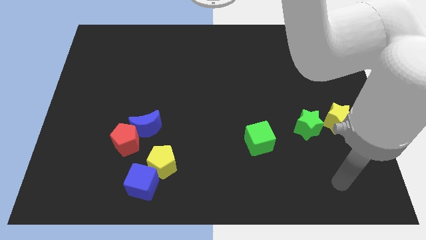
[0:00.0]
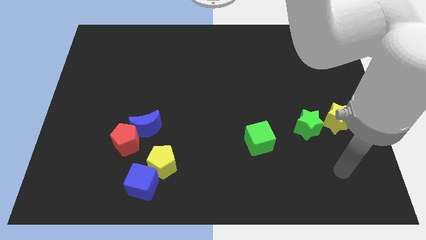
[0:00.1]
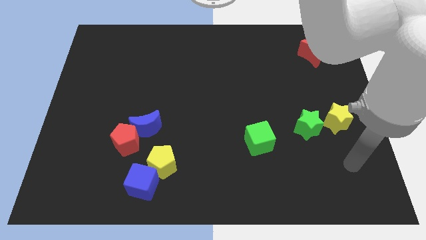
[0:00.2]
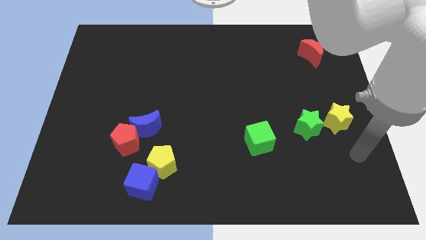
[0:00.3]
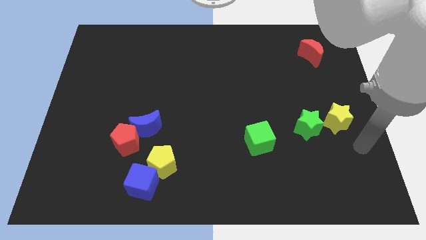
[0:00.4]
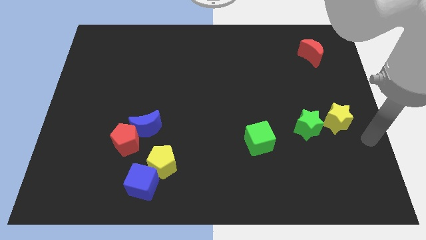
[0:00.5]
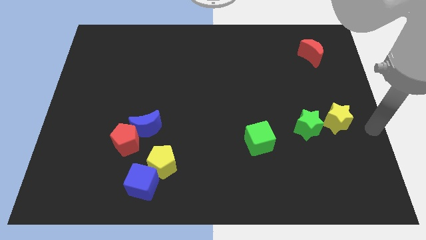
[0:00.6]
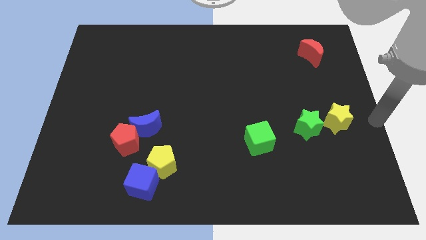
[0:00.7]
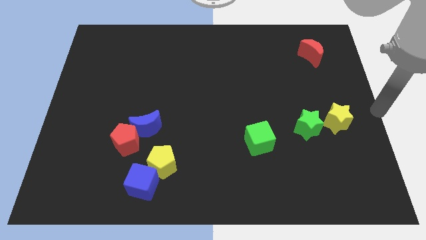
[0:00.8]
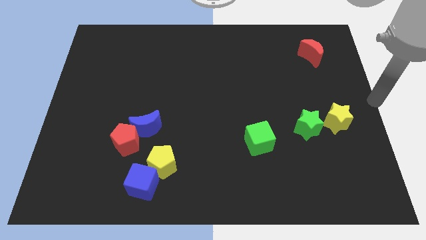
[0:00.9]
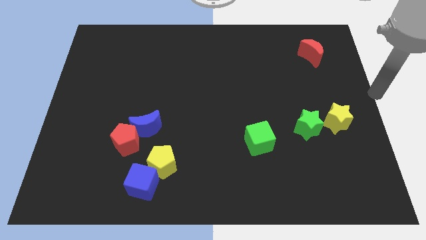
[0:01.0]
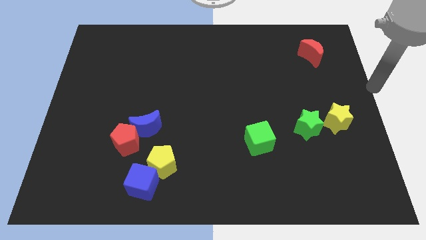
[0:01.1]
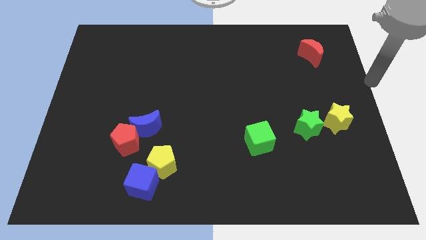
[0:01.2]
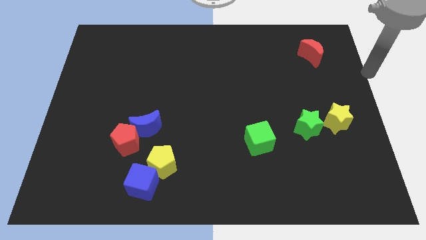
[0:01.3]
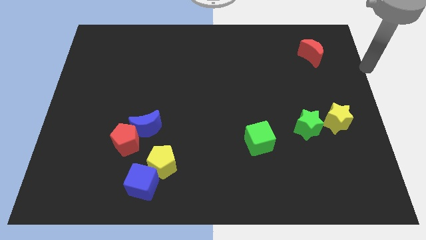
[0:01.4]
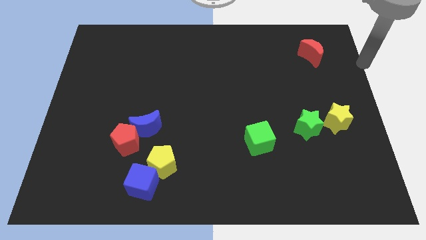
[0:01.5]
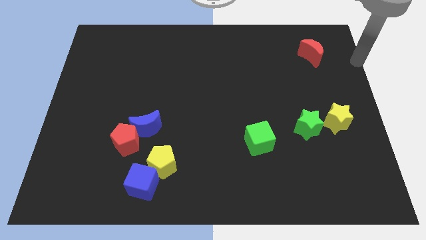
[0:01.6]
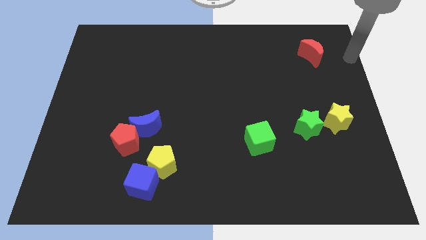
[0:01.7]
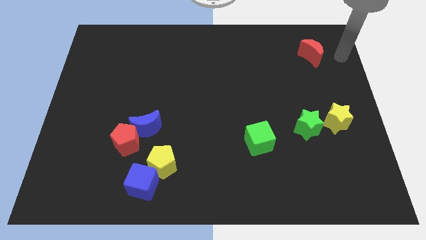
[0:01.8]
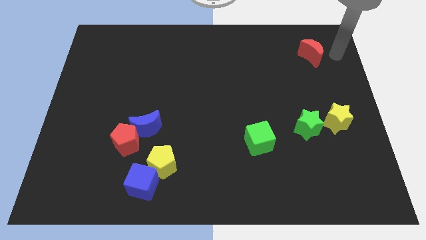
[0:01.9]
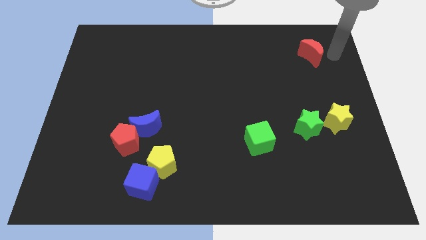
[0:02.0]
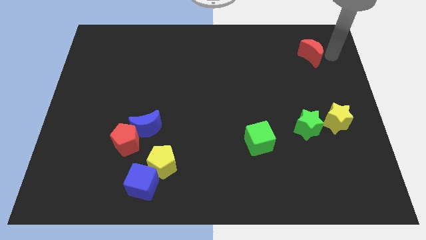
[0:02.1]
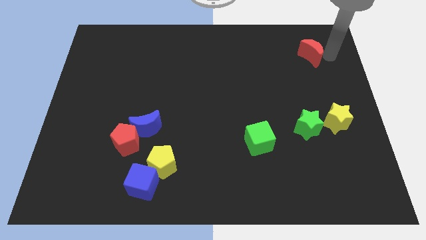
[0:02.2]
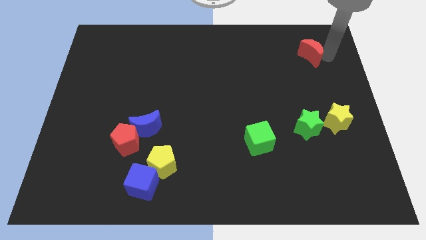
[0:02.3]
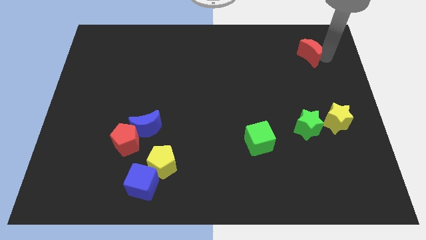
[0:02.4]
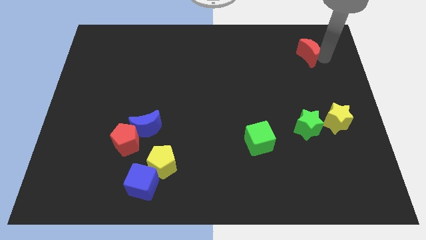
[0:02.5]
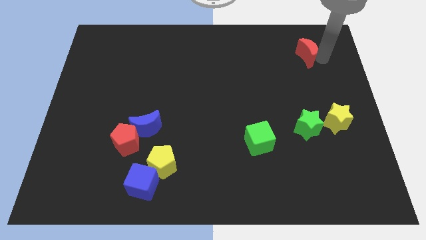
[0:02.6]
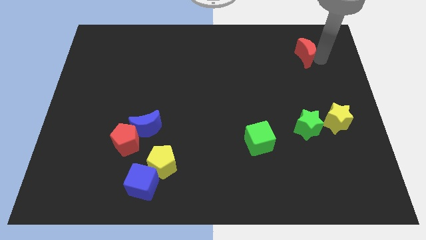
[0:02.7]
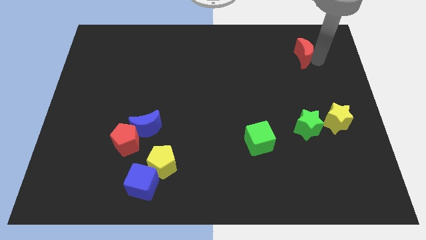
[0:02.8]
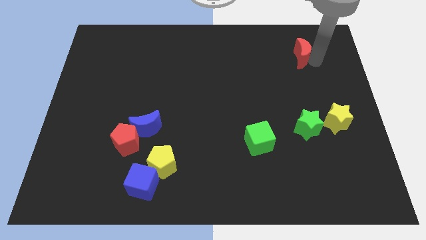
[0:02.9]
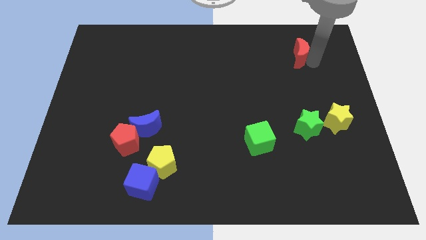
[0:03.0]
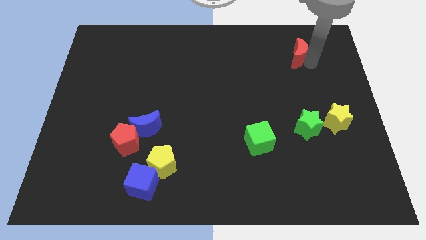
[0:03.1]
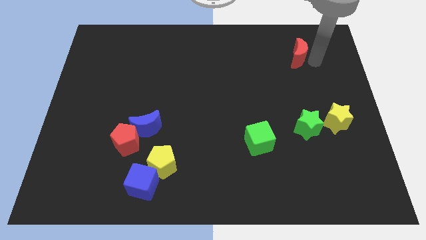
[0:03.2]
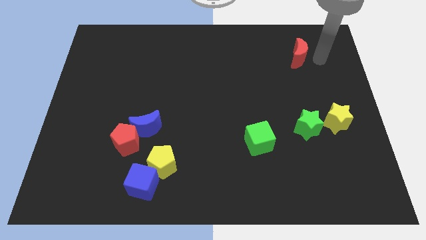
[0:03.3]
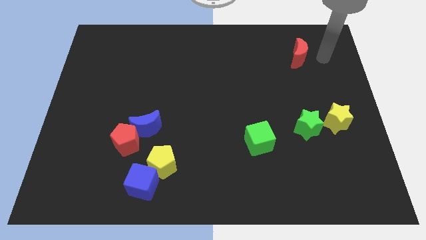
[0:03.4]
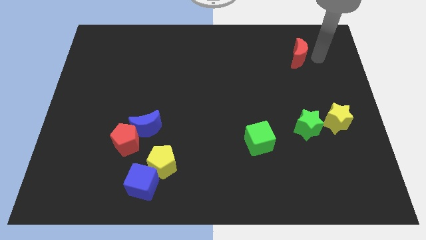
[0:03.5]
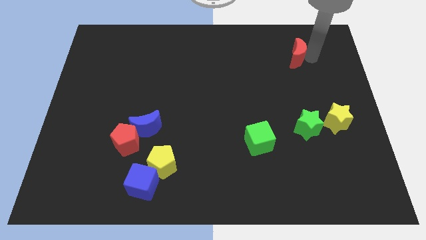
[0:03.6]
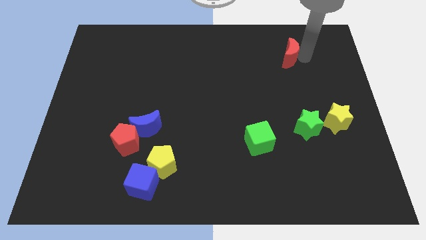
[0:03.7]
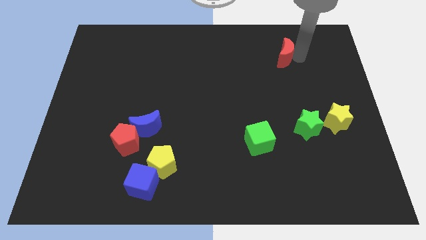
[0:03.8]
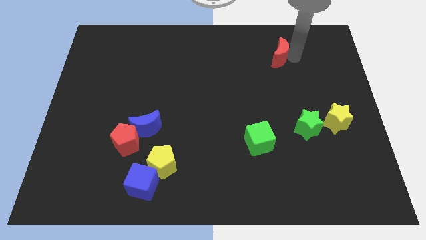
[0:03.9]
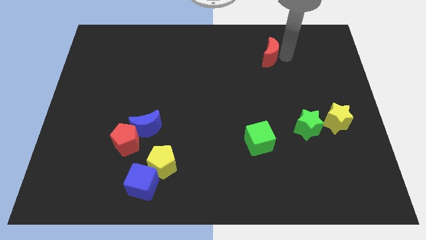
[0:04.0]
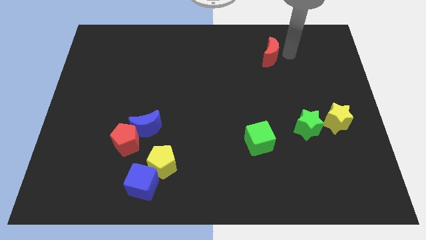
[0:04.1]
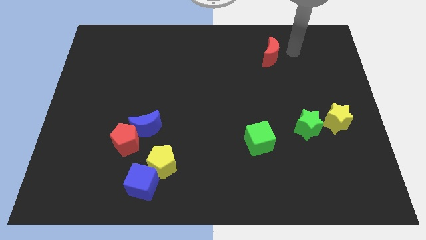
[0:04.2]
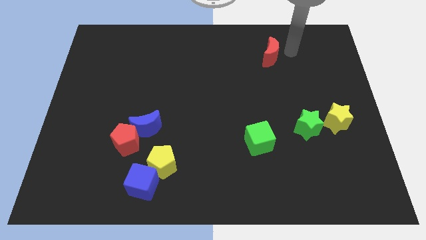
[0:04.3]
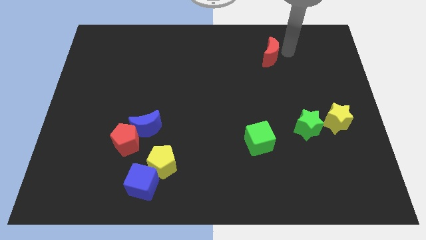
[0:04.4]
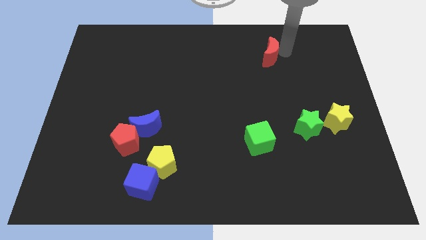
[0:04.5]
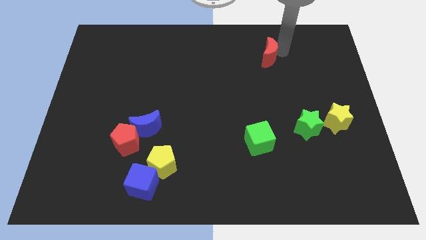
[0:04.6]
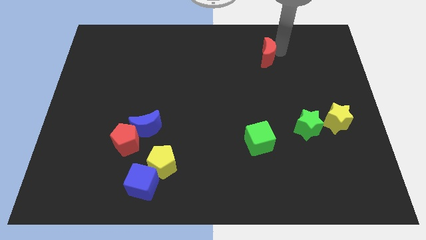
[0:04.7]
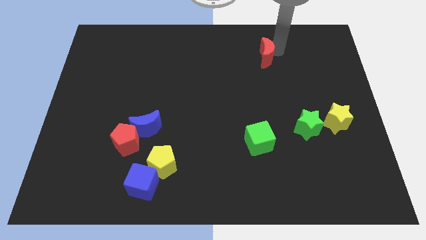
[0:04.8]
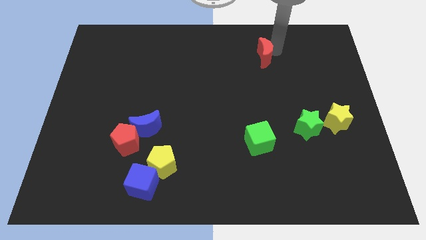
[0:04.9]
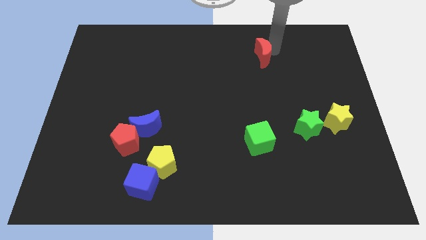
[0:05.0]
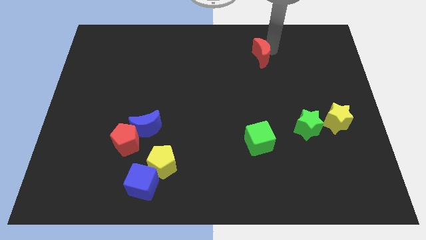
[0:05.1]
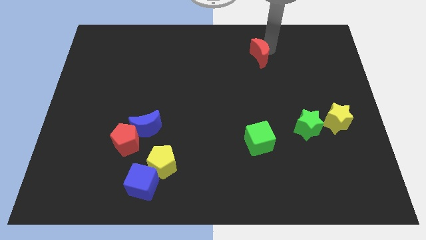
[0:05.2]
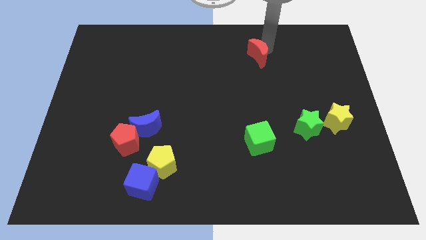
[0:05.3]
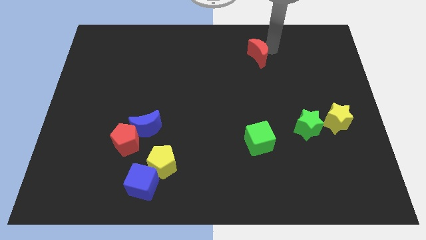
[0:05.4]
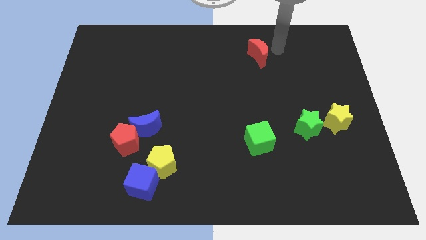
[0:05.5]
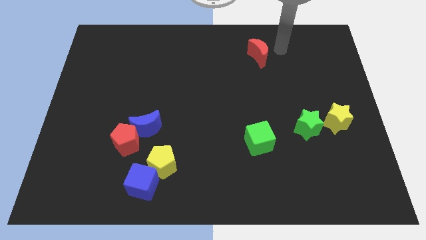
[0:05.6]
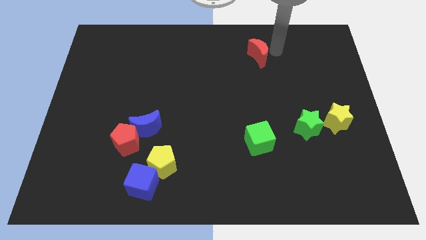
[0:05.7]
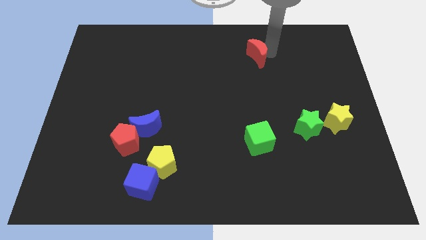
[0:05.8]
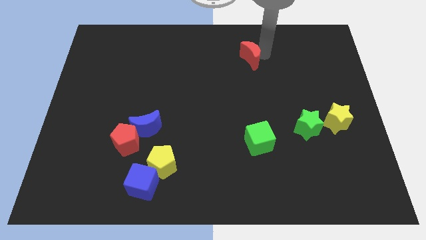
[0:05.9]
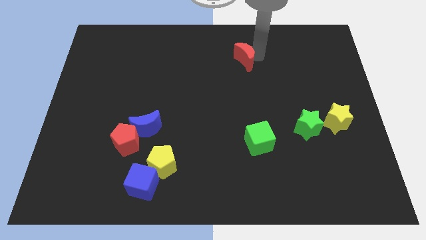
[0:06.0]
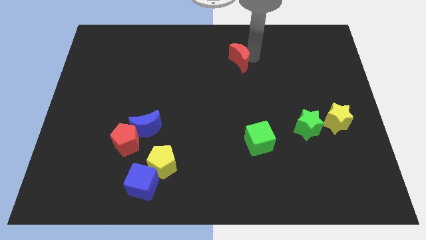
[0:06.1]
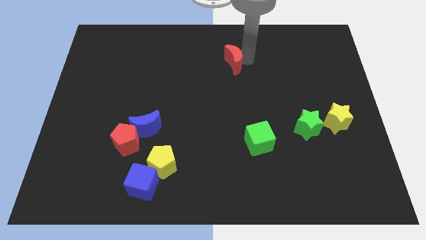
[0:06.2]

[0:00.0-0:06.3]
push the red moon left

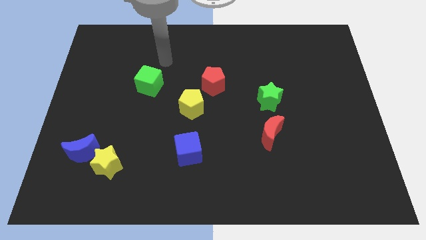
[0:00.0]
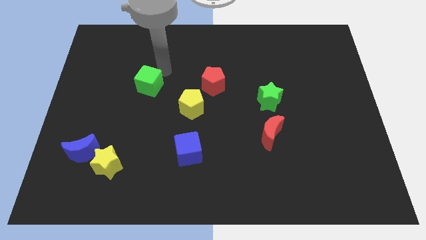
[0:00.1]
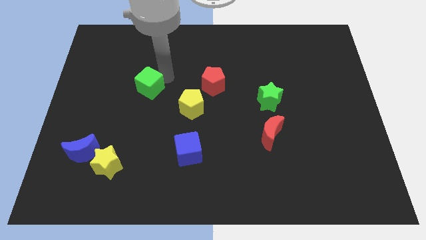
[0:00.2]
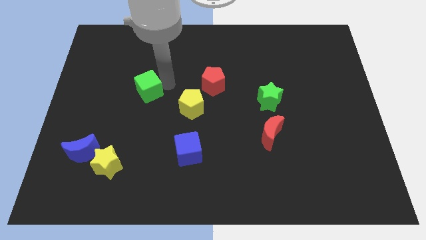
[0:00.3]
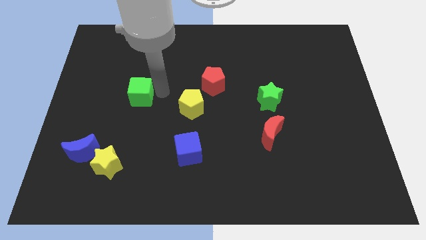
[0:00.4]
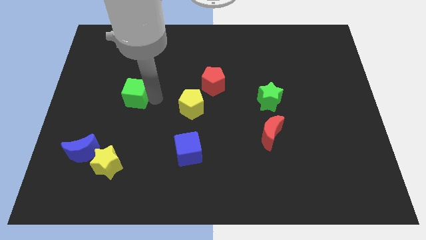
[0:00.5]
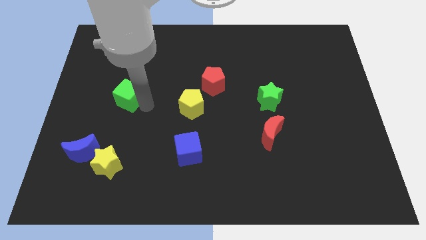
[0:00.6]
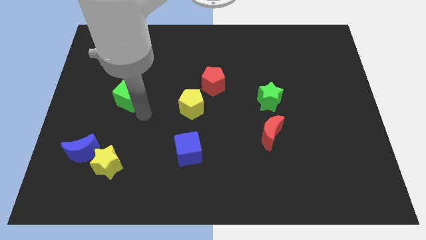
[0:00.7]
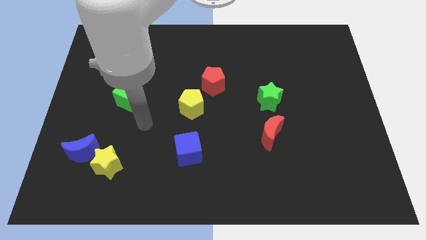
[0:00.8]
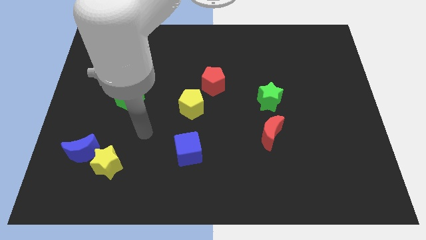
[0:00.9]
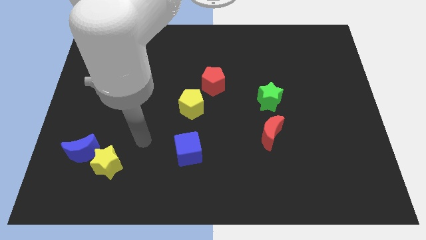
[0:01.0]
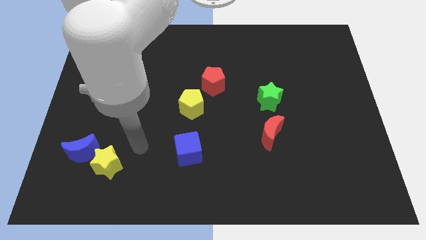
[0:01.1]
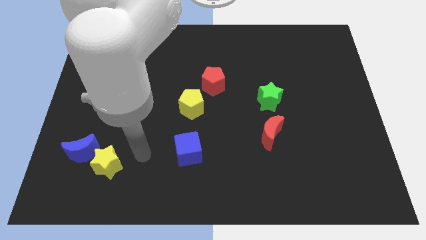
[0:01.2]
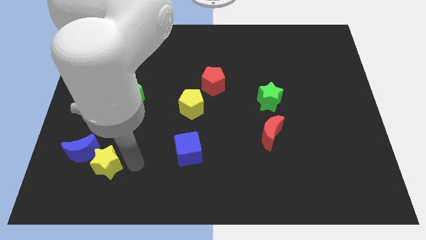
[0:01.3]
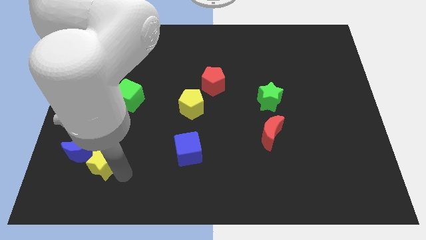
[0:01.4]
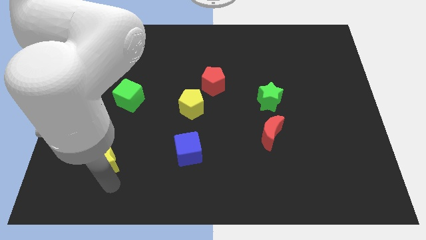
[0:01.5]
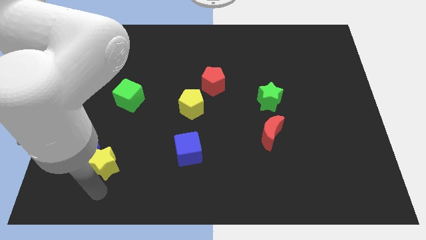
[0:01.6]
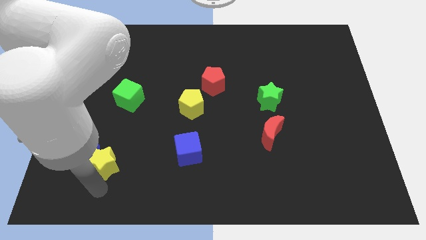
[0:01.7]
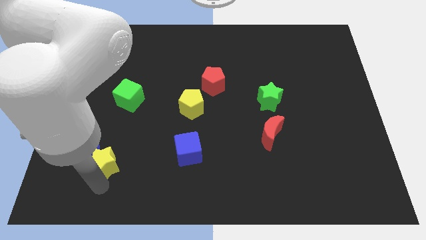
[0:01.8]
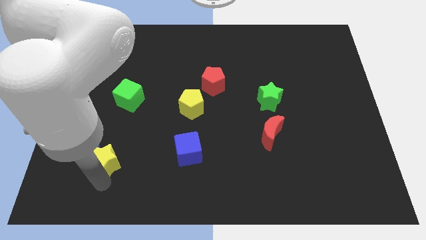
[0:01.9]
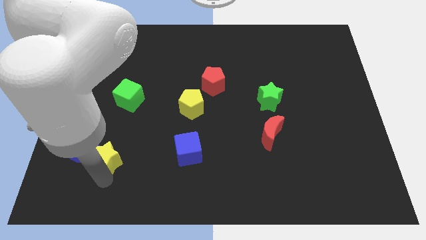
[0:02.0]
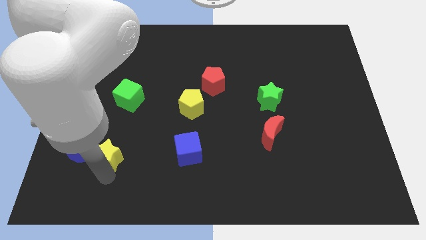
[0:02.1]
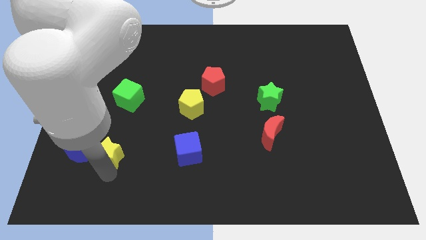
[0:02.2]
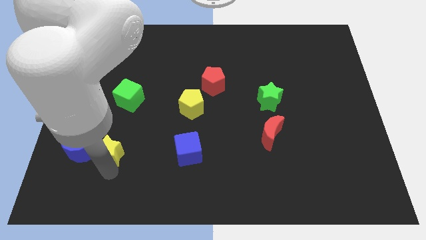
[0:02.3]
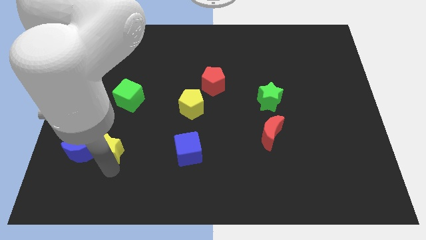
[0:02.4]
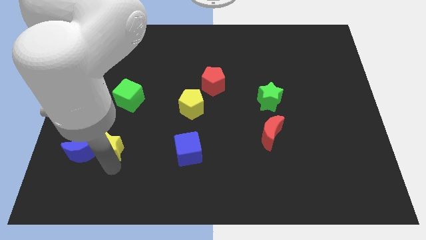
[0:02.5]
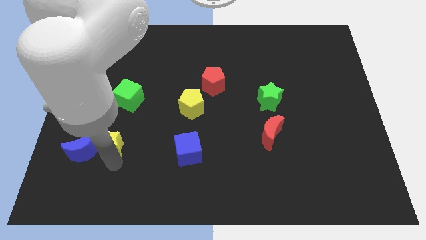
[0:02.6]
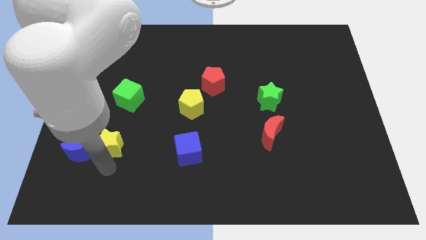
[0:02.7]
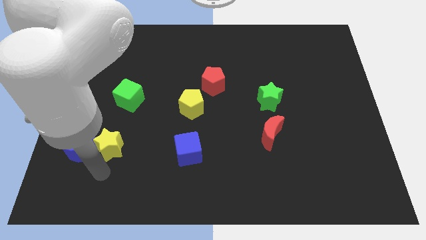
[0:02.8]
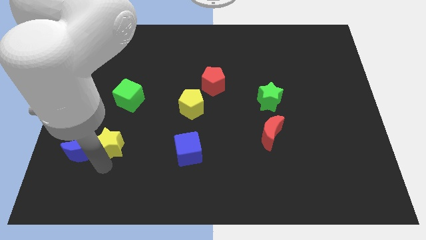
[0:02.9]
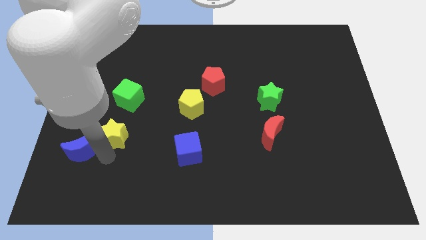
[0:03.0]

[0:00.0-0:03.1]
slide the yellow star a bit upwards
